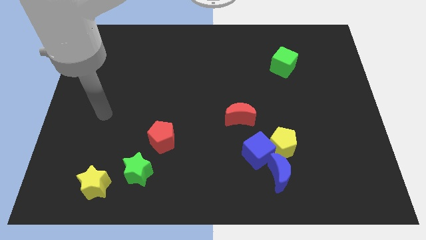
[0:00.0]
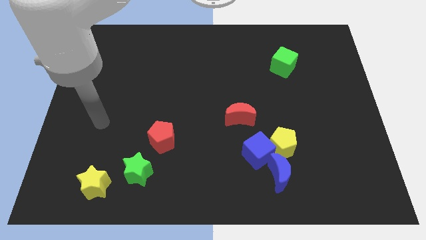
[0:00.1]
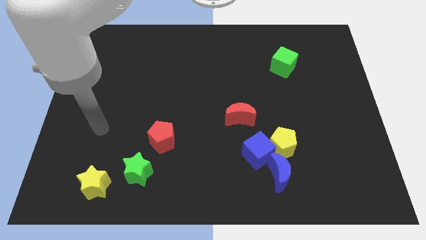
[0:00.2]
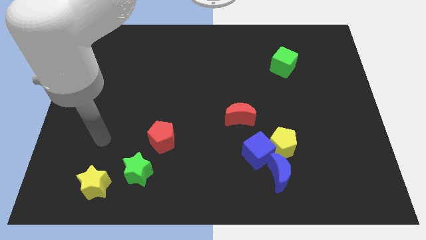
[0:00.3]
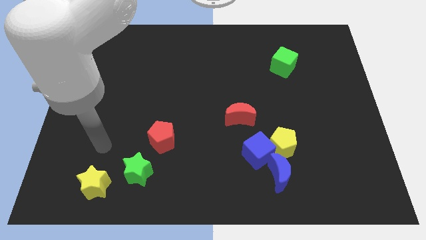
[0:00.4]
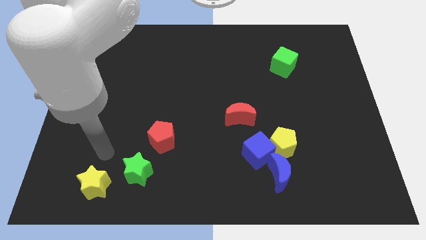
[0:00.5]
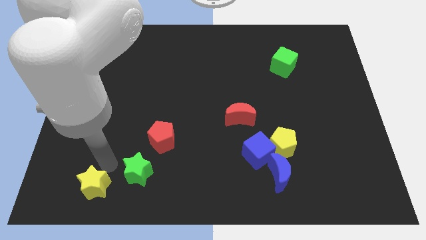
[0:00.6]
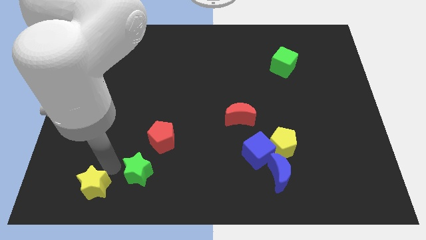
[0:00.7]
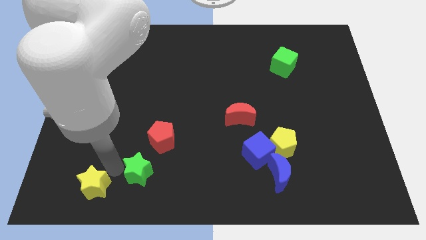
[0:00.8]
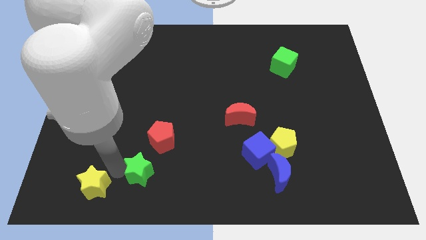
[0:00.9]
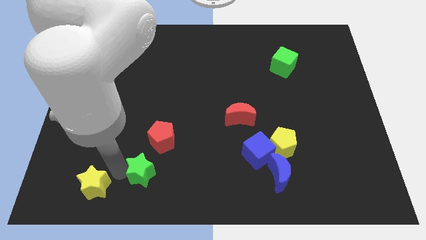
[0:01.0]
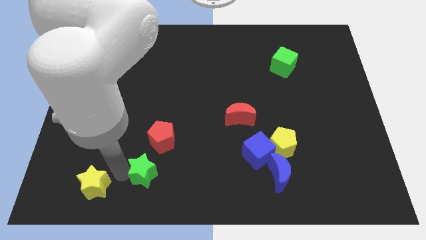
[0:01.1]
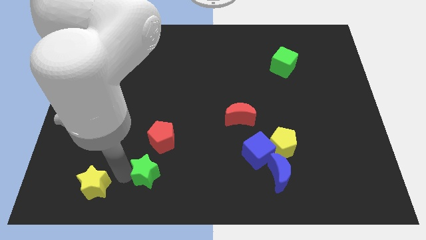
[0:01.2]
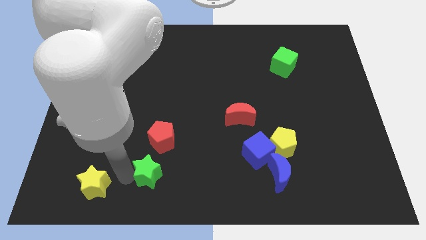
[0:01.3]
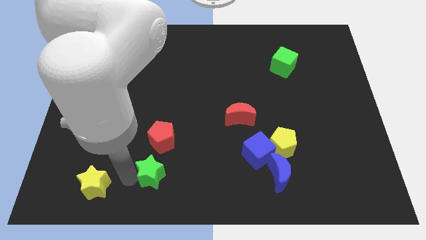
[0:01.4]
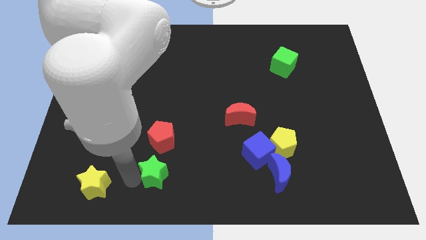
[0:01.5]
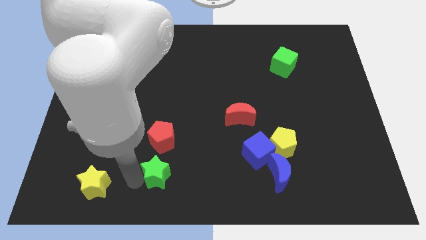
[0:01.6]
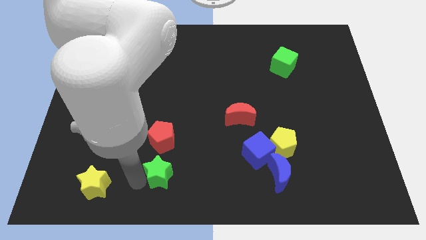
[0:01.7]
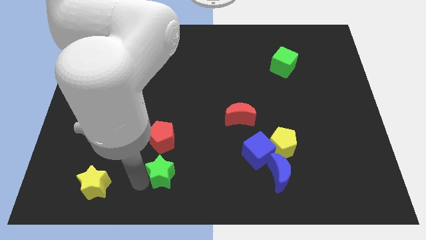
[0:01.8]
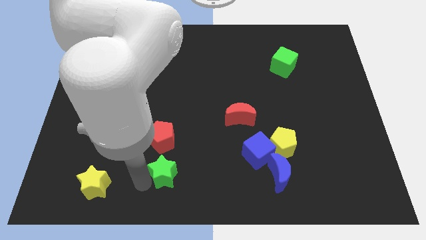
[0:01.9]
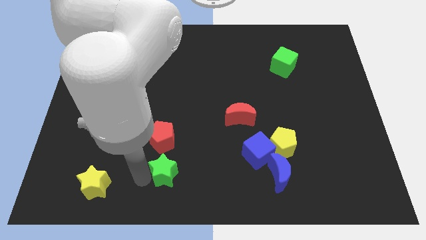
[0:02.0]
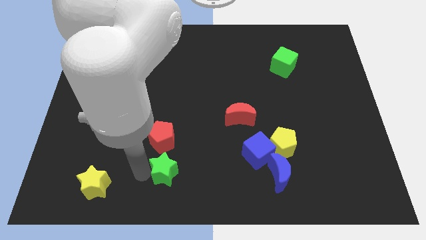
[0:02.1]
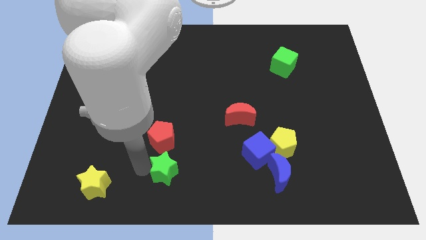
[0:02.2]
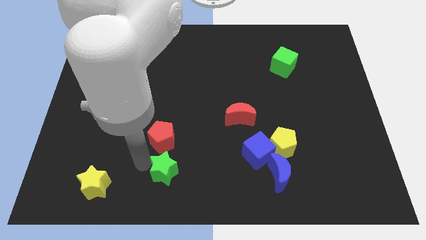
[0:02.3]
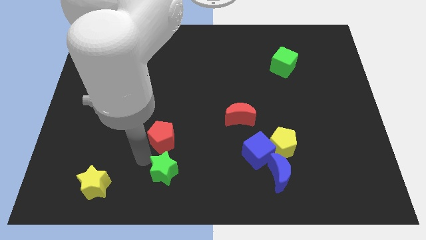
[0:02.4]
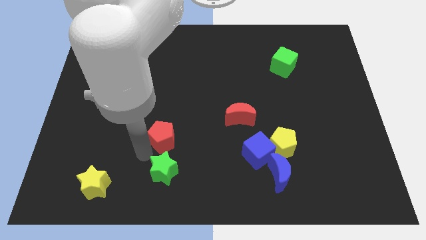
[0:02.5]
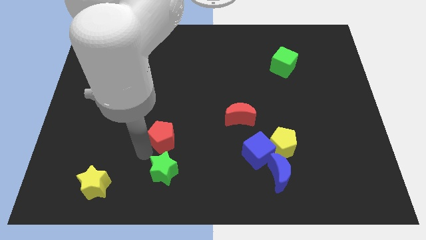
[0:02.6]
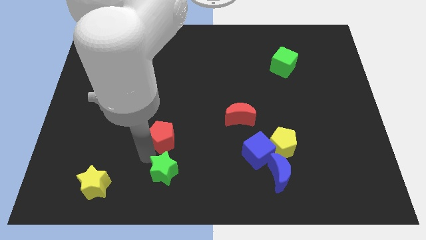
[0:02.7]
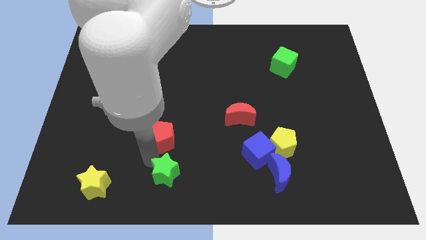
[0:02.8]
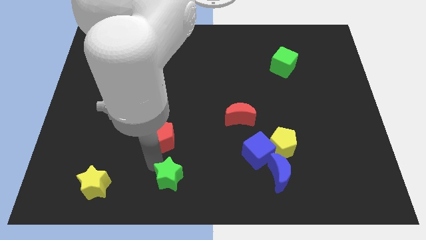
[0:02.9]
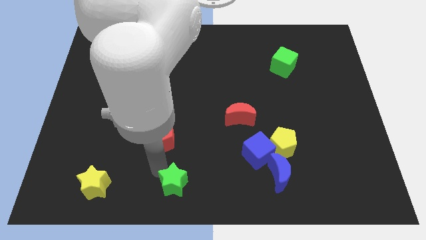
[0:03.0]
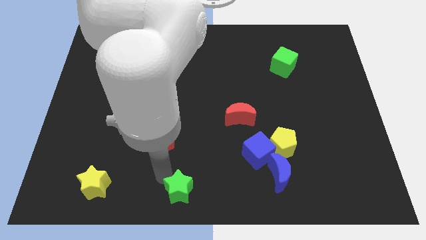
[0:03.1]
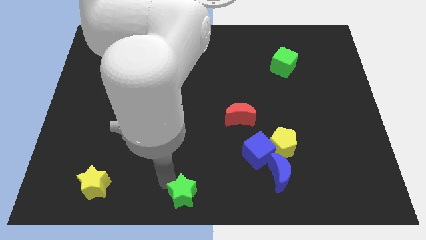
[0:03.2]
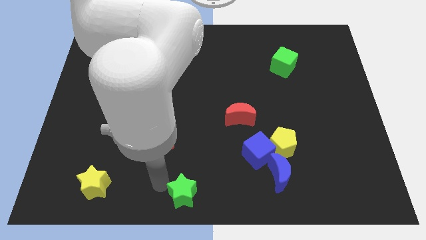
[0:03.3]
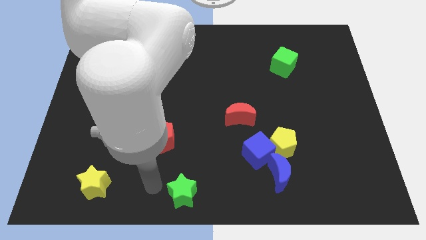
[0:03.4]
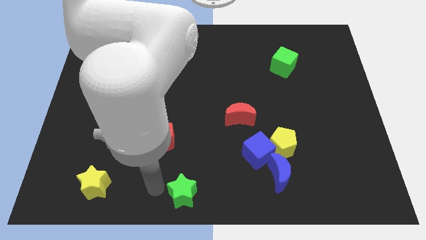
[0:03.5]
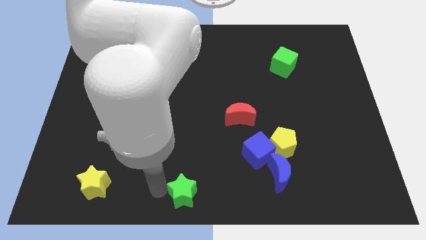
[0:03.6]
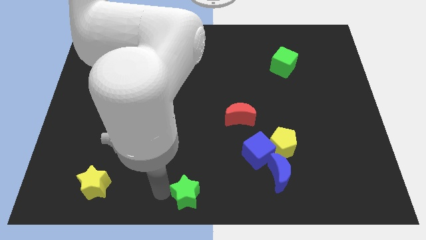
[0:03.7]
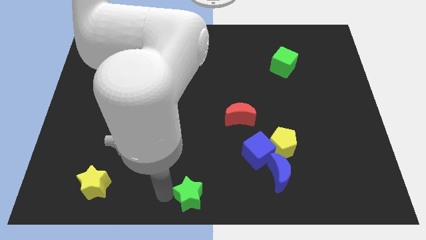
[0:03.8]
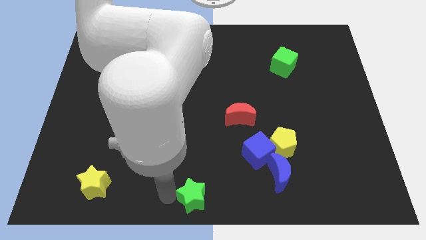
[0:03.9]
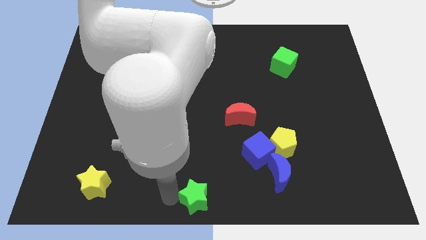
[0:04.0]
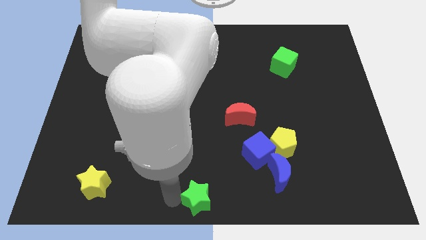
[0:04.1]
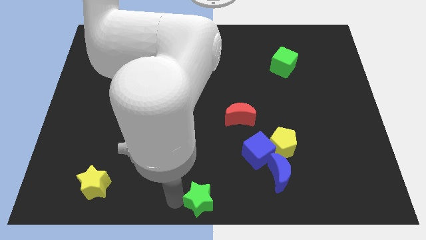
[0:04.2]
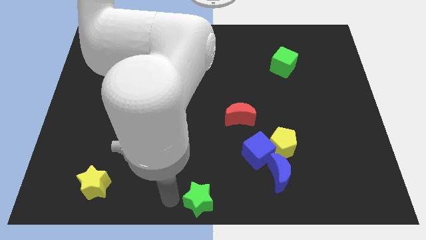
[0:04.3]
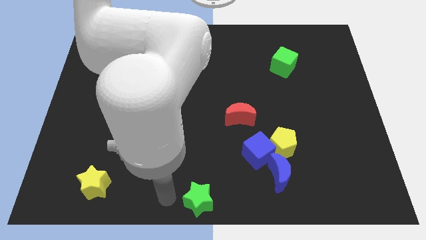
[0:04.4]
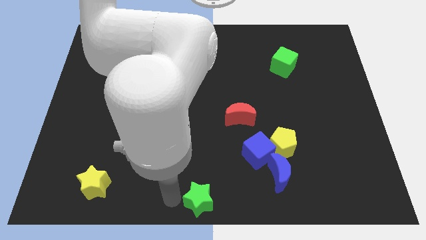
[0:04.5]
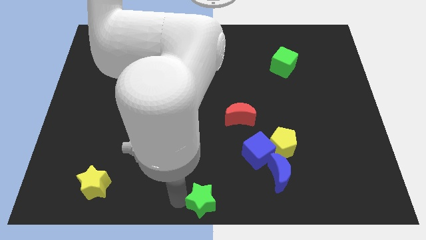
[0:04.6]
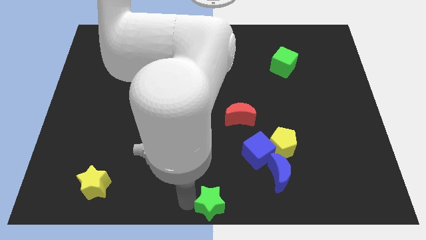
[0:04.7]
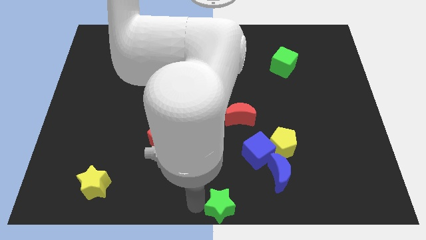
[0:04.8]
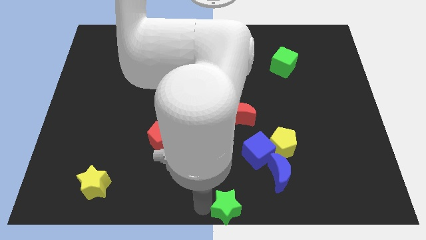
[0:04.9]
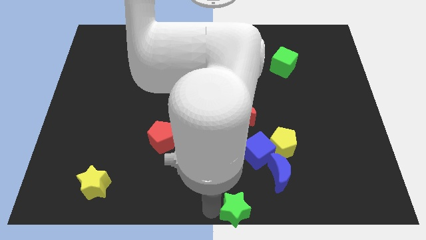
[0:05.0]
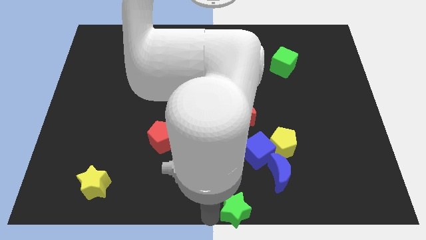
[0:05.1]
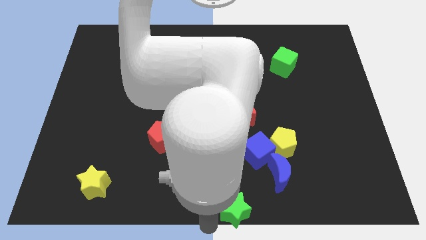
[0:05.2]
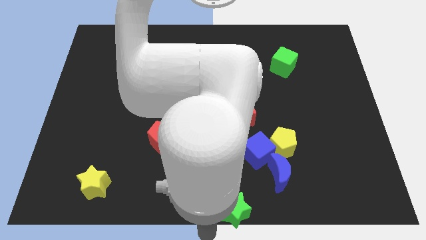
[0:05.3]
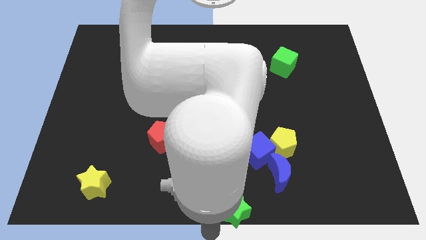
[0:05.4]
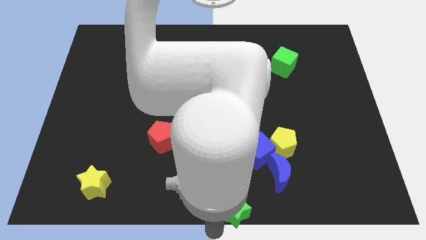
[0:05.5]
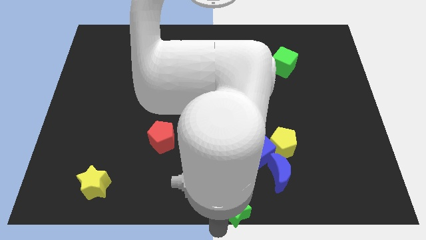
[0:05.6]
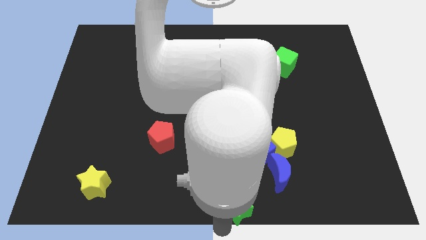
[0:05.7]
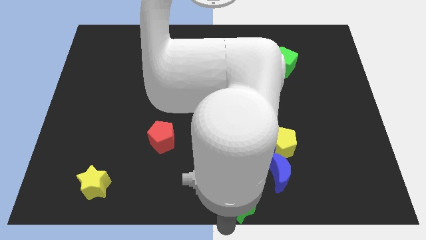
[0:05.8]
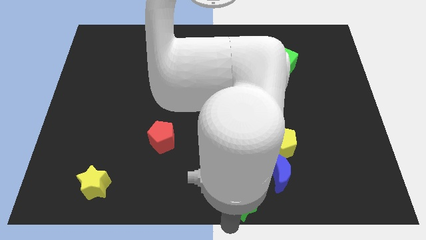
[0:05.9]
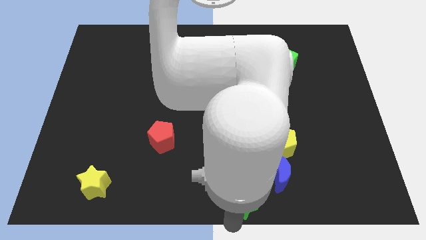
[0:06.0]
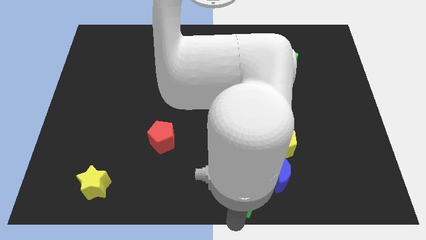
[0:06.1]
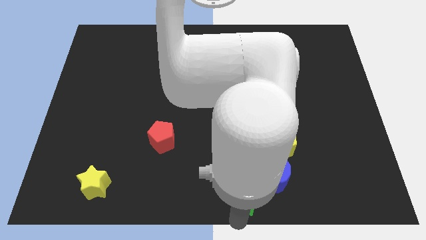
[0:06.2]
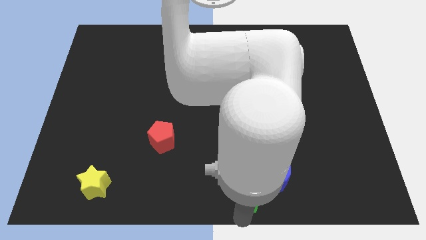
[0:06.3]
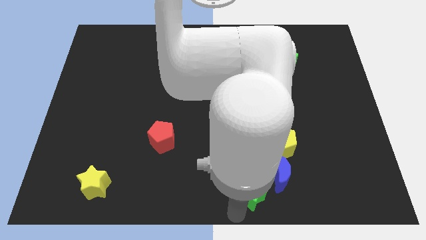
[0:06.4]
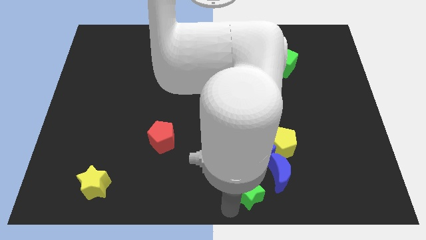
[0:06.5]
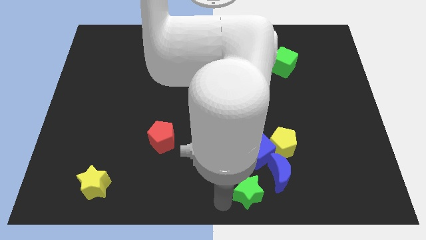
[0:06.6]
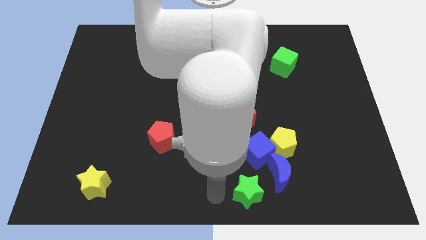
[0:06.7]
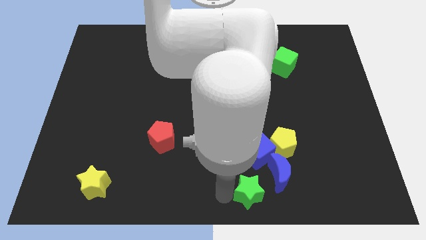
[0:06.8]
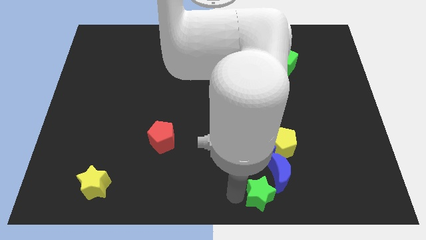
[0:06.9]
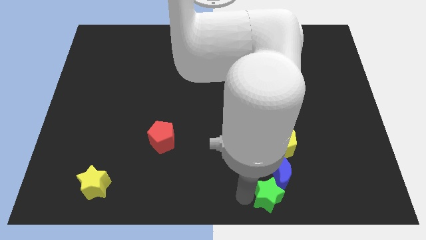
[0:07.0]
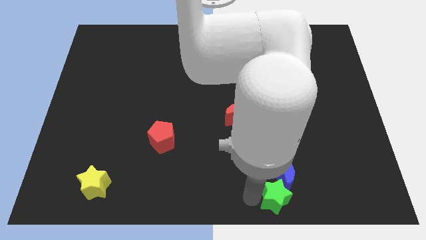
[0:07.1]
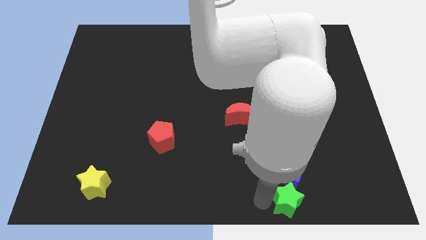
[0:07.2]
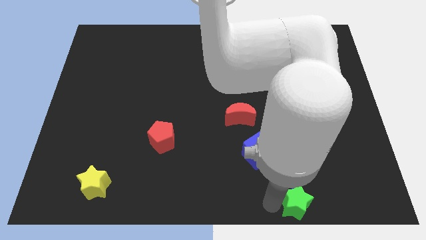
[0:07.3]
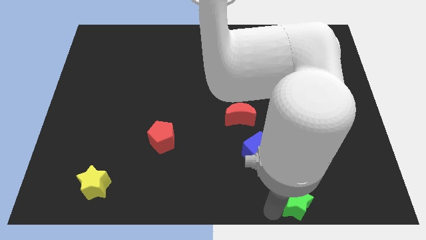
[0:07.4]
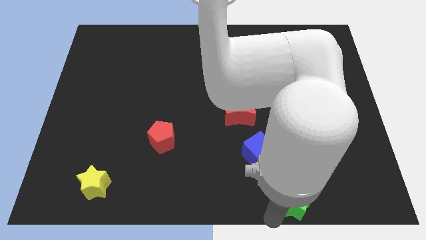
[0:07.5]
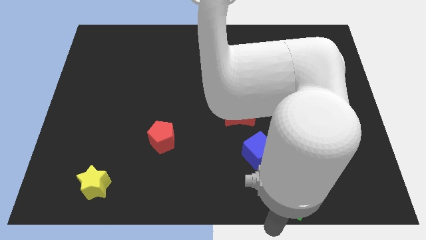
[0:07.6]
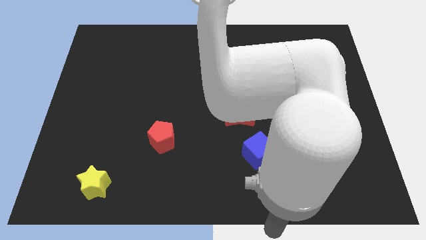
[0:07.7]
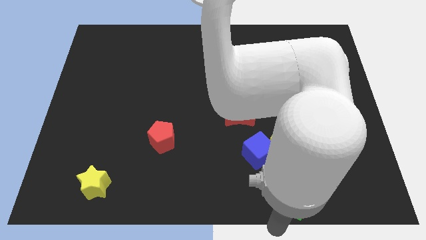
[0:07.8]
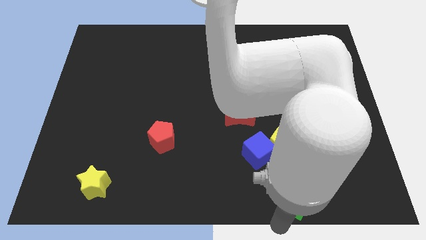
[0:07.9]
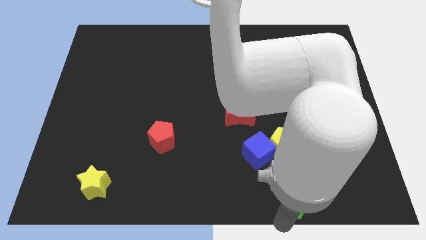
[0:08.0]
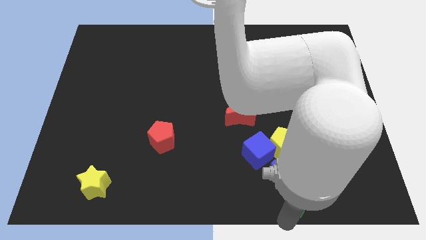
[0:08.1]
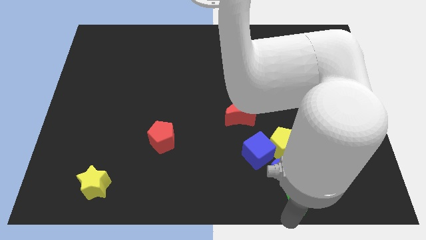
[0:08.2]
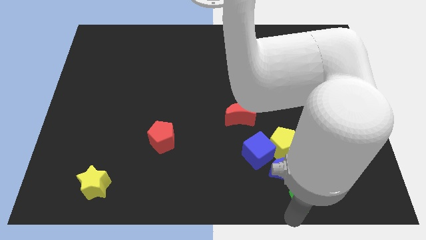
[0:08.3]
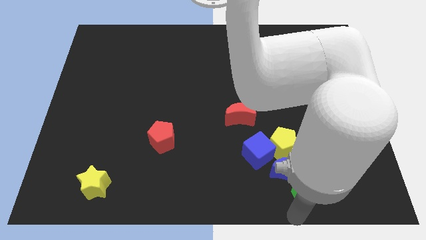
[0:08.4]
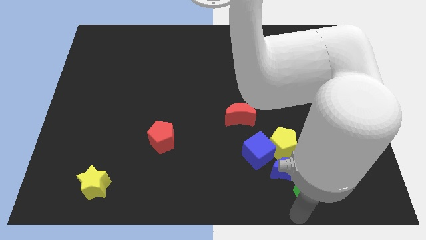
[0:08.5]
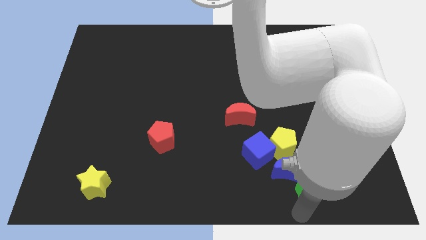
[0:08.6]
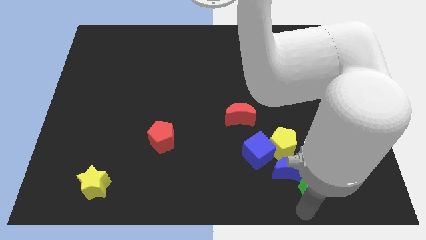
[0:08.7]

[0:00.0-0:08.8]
push the green star to the right side of the blue moon
